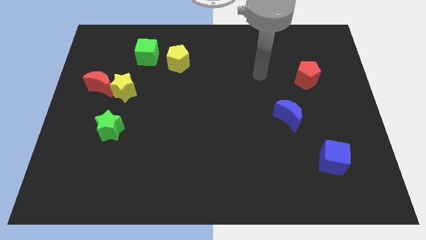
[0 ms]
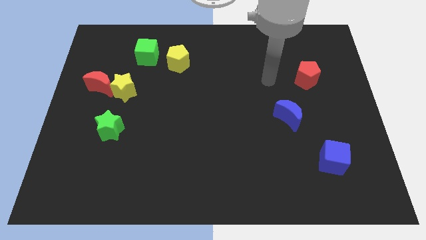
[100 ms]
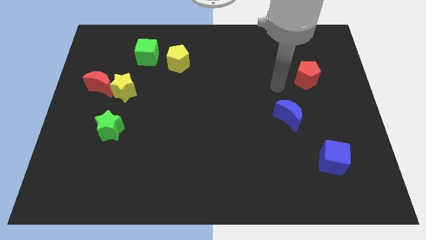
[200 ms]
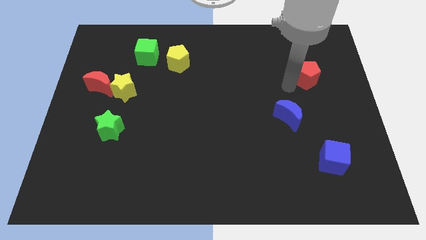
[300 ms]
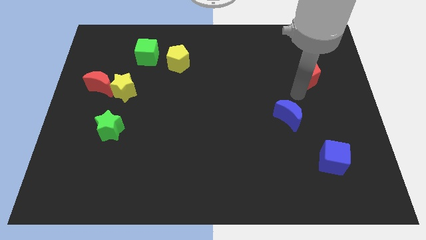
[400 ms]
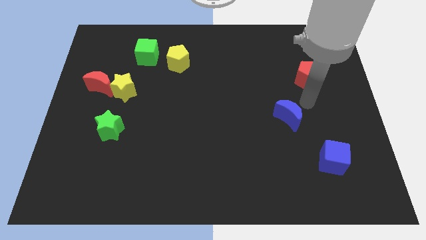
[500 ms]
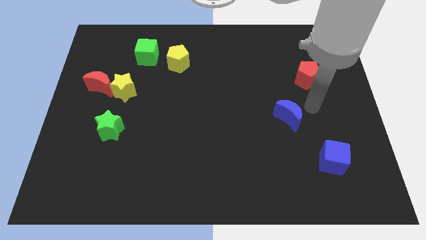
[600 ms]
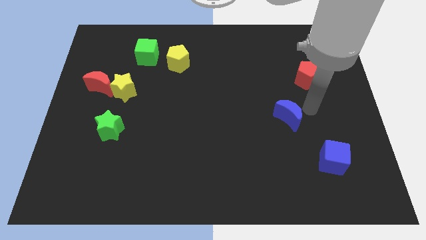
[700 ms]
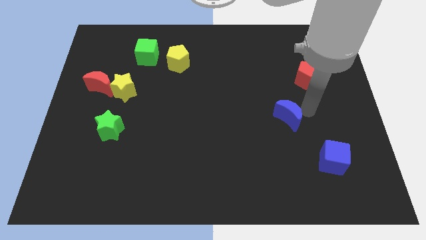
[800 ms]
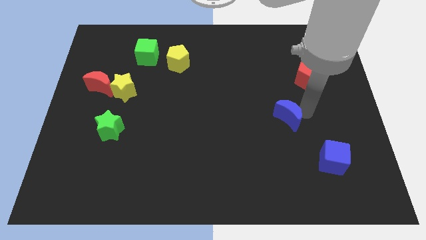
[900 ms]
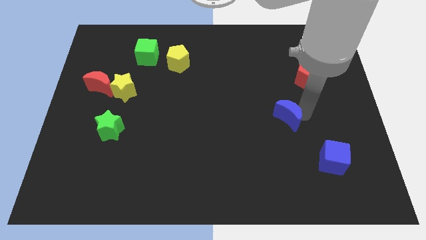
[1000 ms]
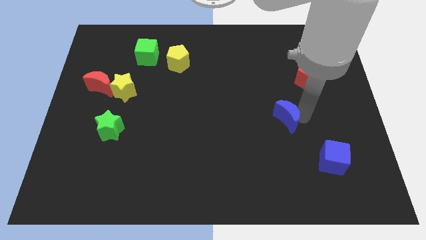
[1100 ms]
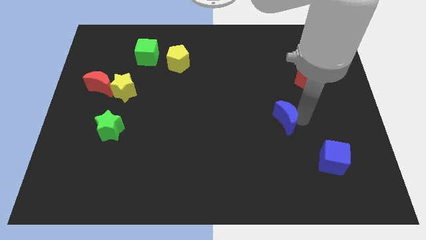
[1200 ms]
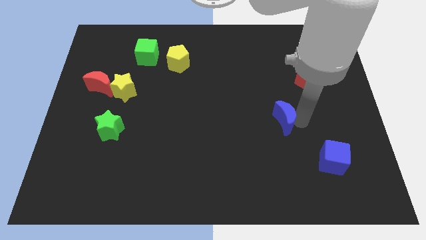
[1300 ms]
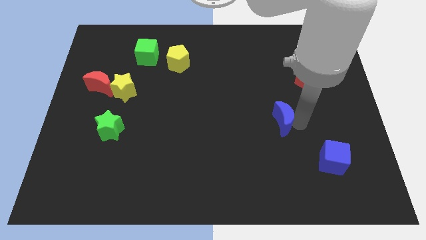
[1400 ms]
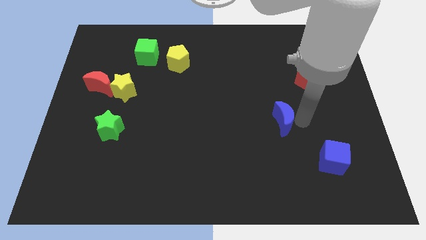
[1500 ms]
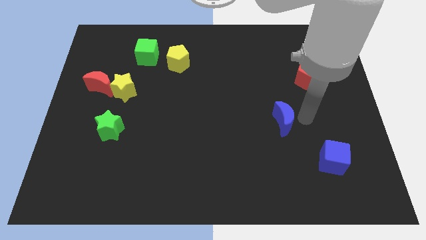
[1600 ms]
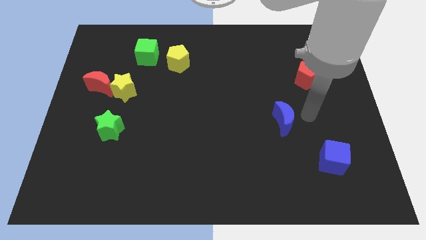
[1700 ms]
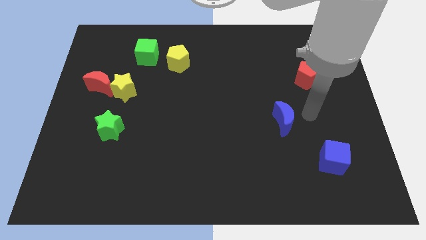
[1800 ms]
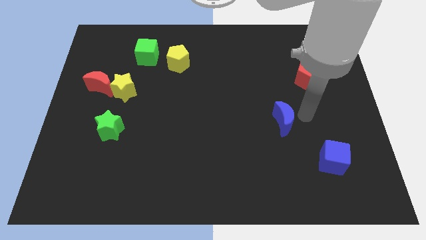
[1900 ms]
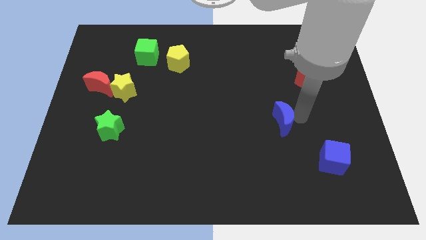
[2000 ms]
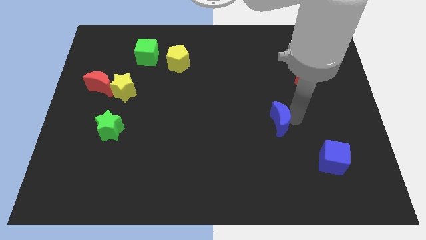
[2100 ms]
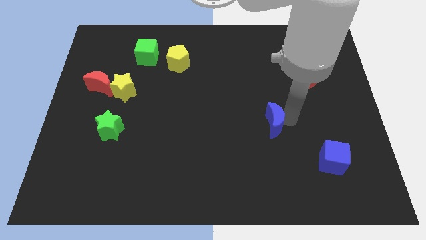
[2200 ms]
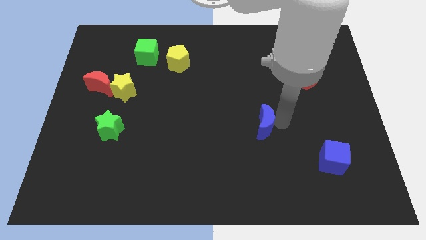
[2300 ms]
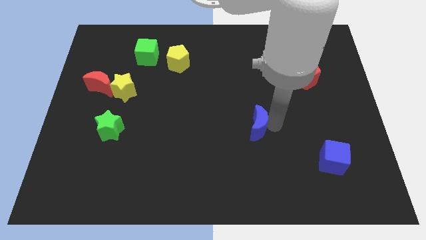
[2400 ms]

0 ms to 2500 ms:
slightly move the blue moon to the left

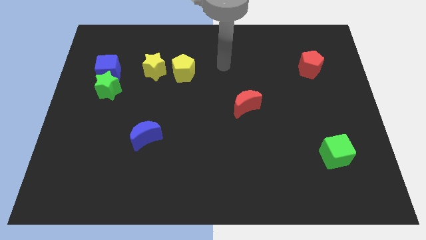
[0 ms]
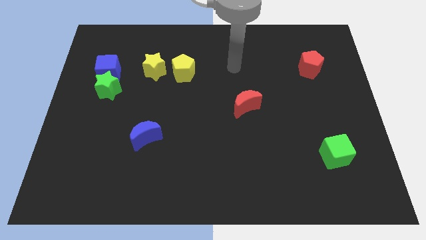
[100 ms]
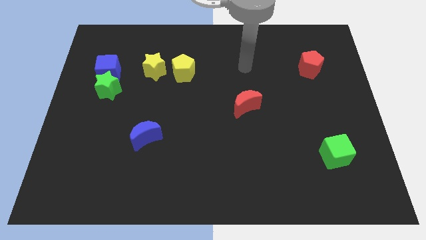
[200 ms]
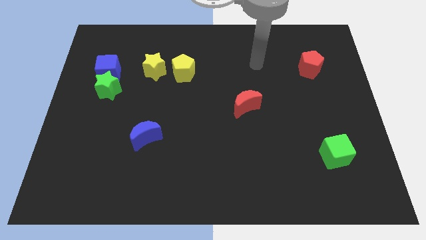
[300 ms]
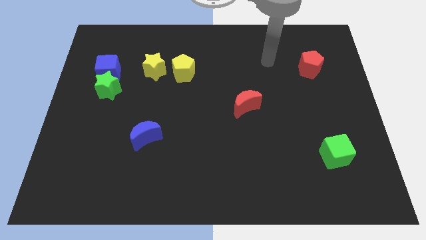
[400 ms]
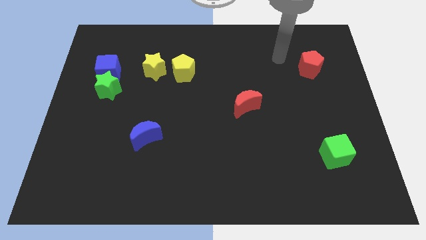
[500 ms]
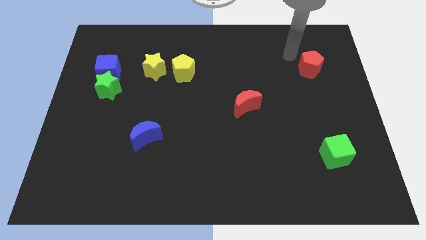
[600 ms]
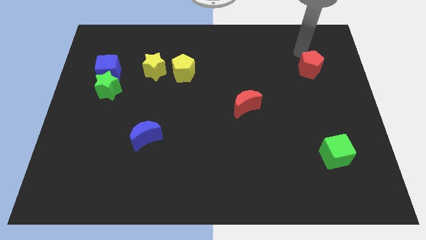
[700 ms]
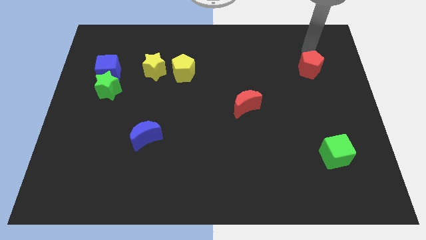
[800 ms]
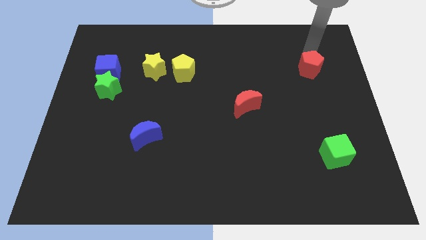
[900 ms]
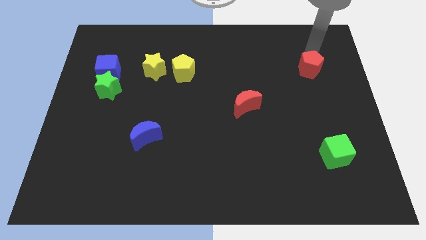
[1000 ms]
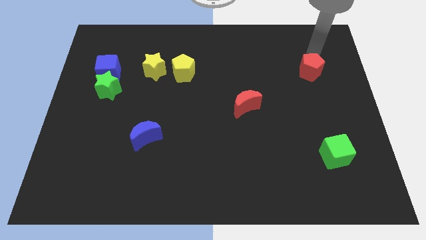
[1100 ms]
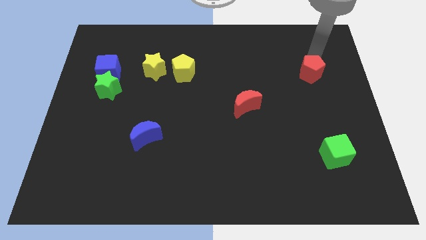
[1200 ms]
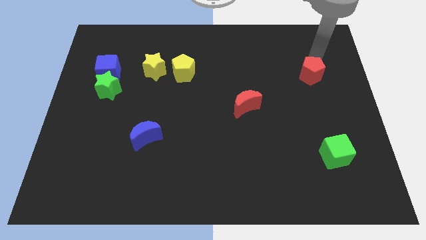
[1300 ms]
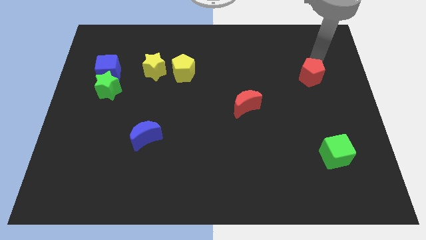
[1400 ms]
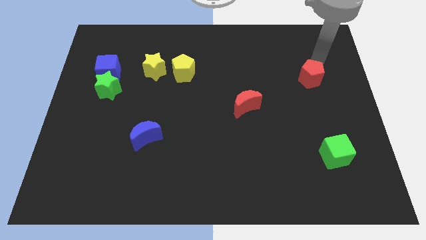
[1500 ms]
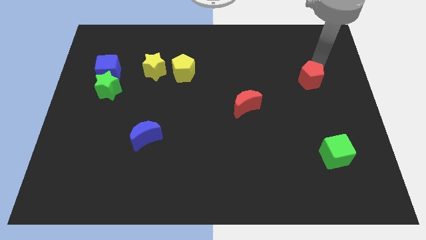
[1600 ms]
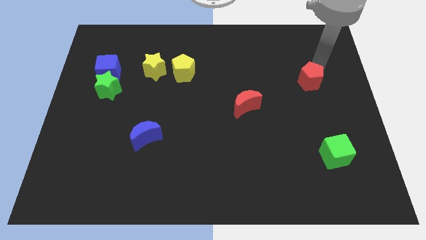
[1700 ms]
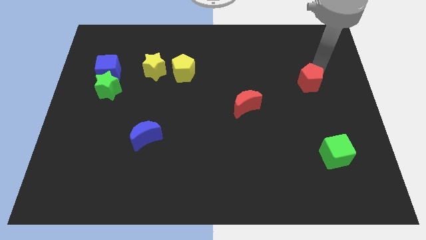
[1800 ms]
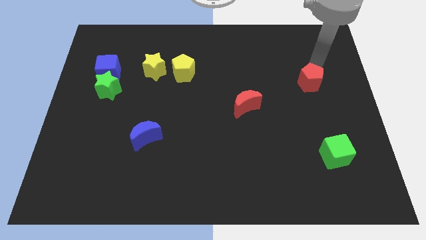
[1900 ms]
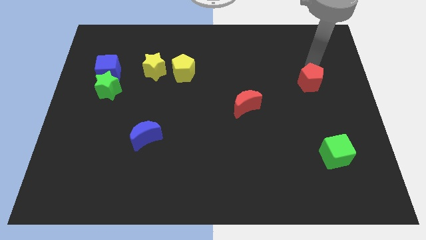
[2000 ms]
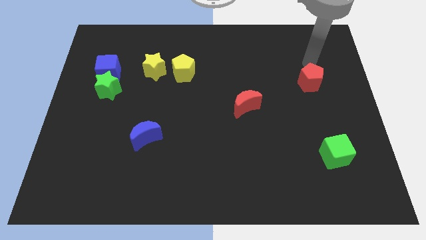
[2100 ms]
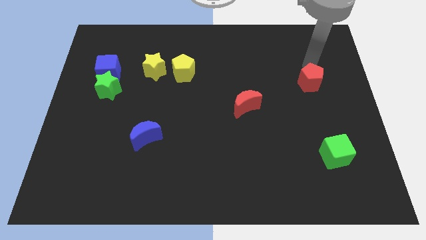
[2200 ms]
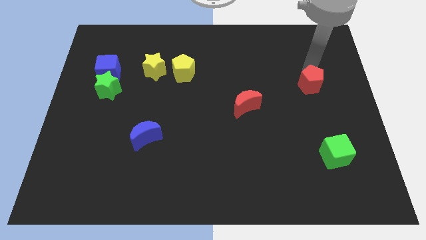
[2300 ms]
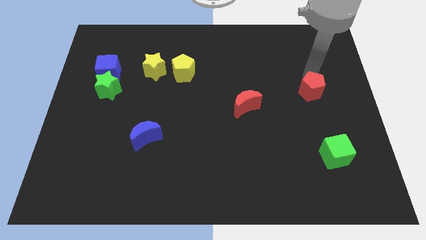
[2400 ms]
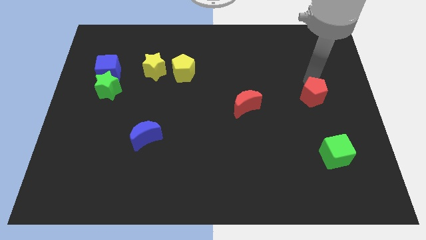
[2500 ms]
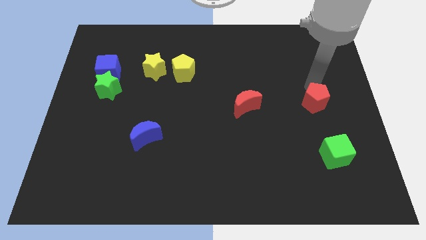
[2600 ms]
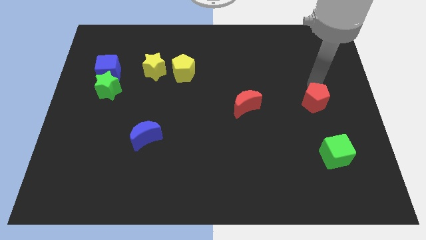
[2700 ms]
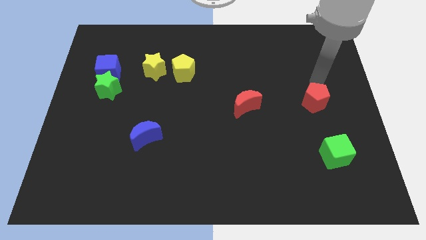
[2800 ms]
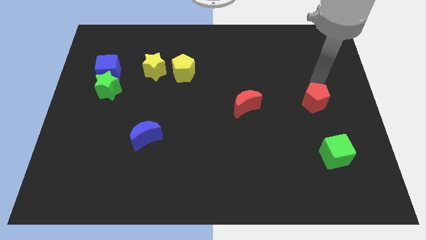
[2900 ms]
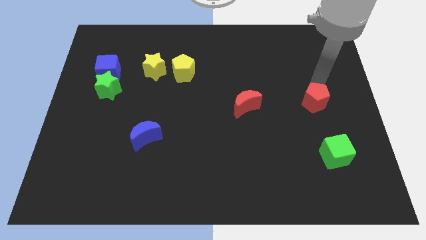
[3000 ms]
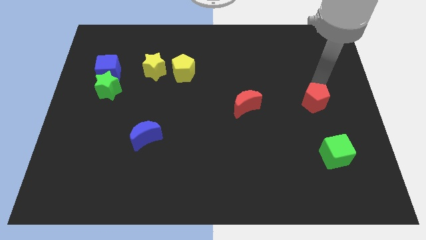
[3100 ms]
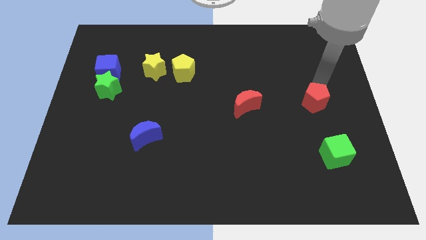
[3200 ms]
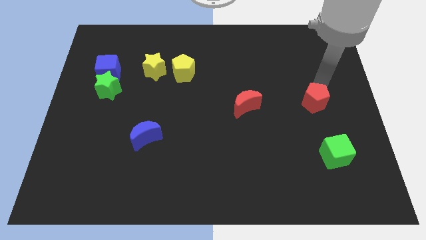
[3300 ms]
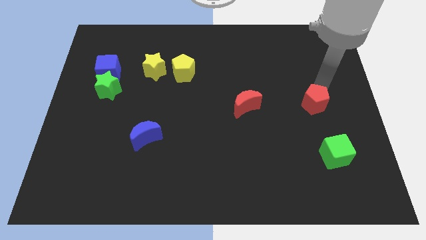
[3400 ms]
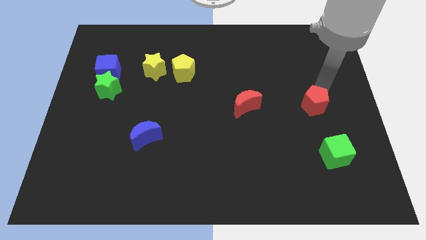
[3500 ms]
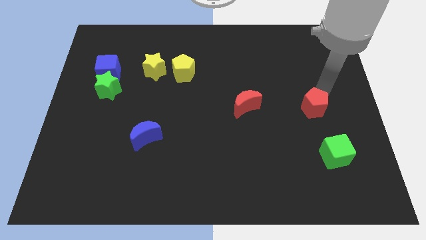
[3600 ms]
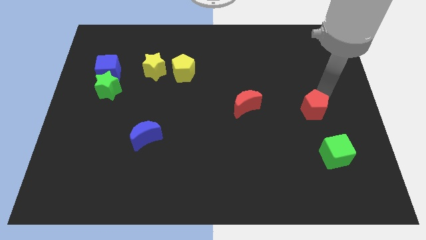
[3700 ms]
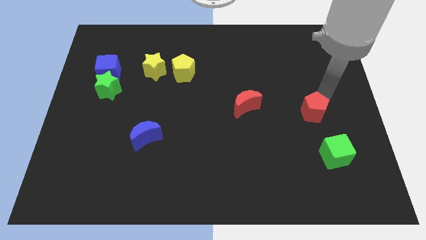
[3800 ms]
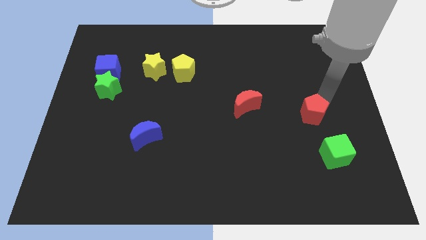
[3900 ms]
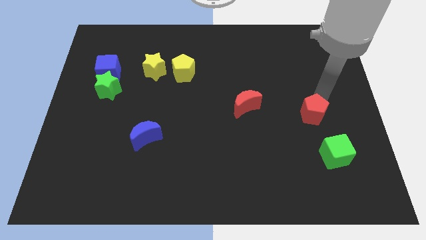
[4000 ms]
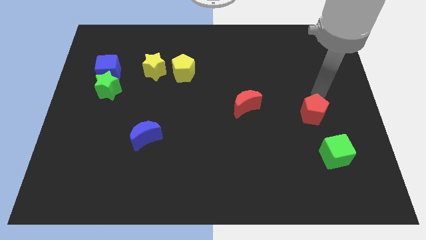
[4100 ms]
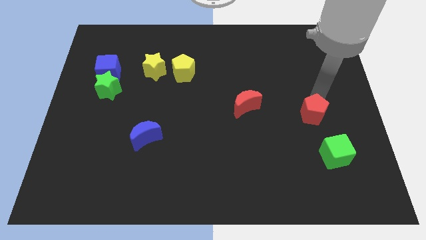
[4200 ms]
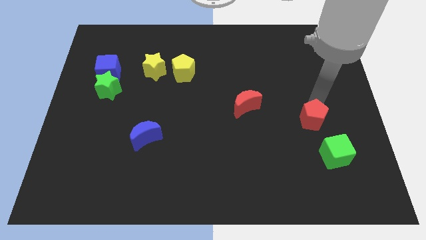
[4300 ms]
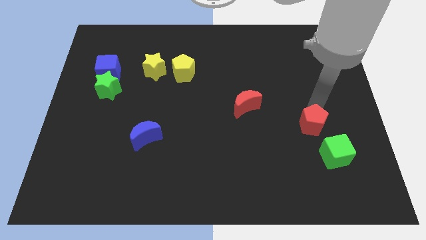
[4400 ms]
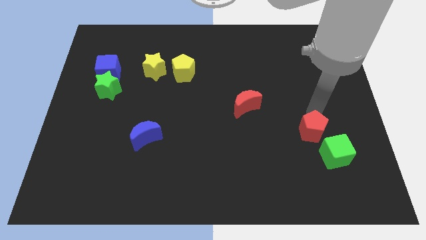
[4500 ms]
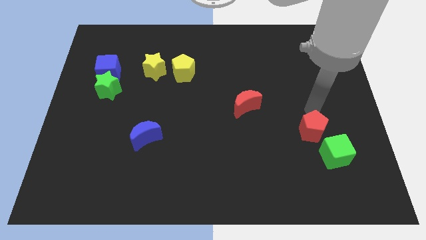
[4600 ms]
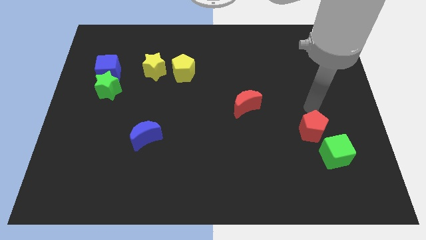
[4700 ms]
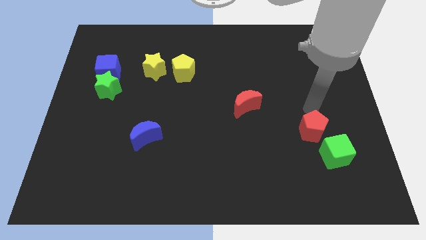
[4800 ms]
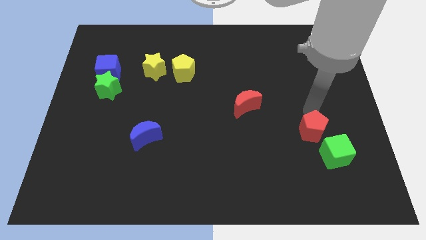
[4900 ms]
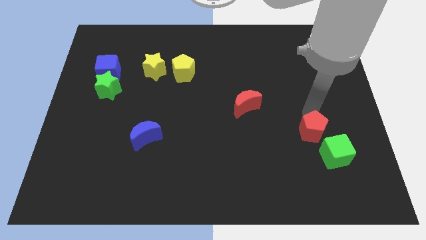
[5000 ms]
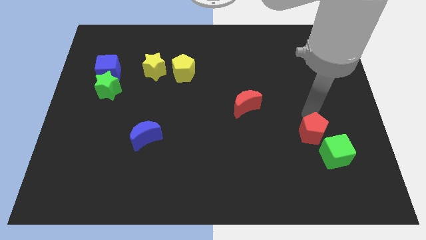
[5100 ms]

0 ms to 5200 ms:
slide the red pentagon down

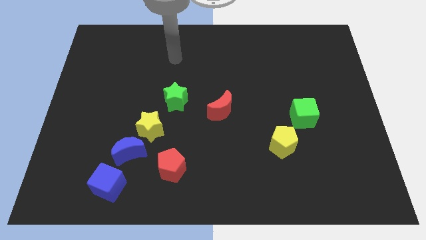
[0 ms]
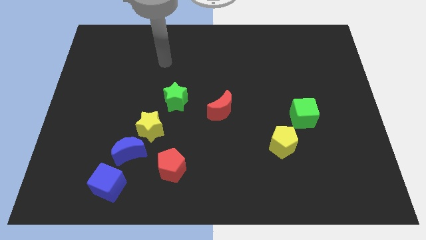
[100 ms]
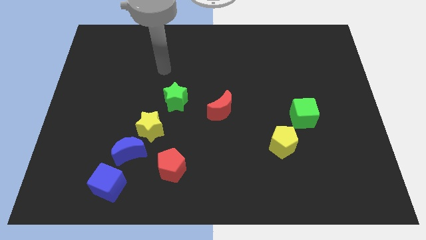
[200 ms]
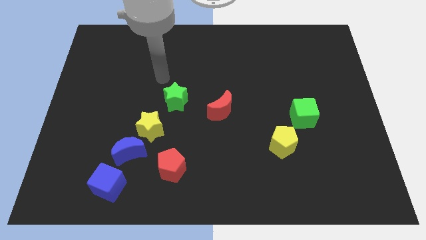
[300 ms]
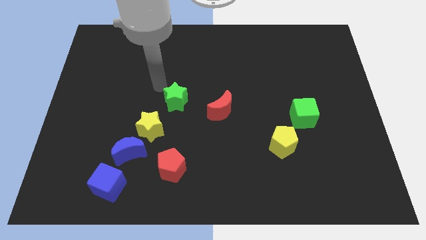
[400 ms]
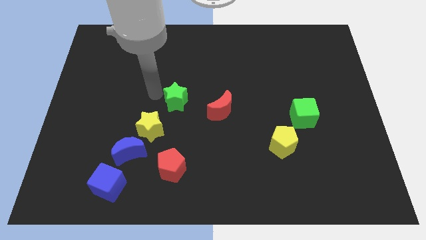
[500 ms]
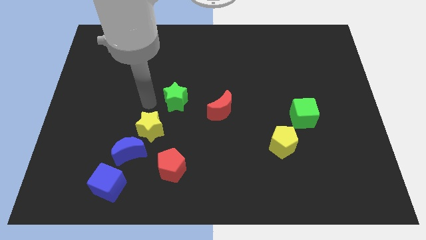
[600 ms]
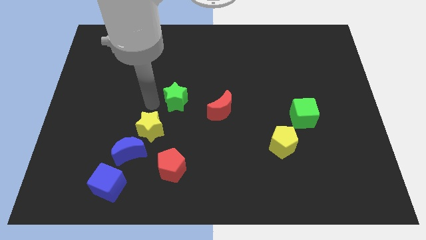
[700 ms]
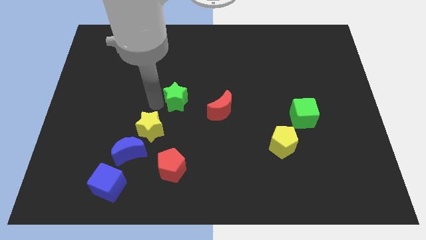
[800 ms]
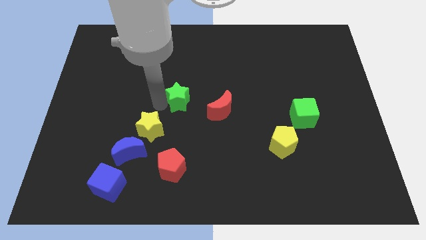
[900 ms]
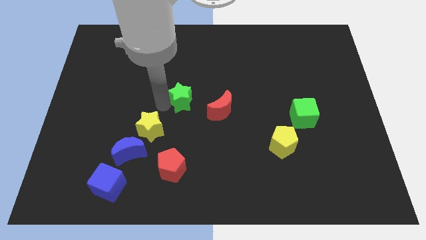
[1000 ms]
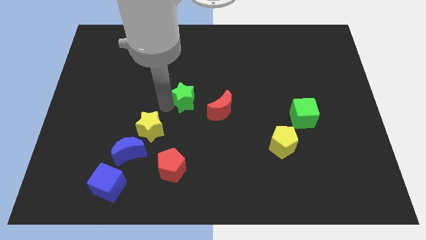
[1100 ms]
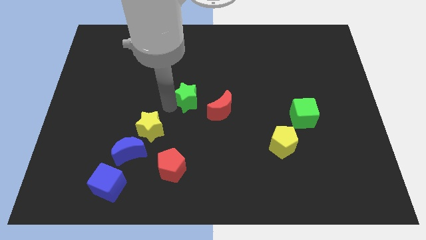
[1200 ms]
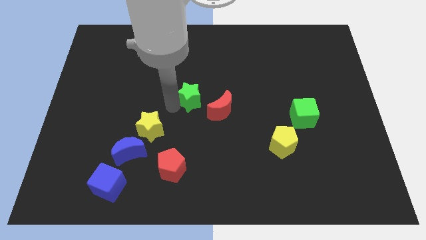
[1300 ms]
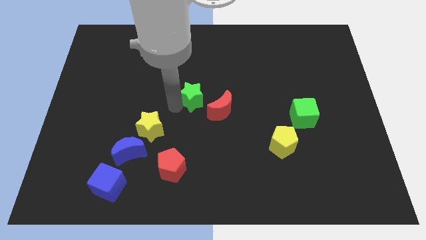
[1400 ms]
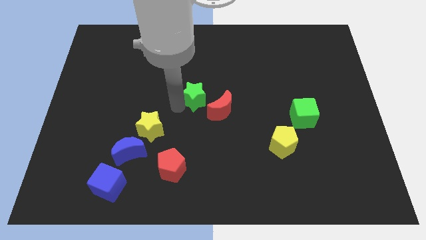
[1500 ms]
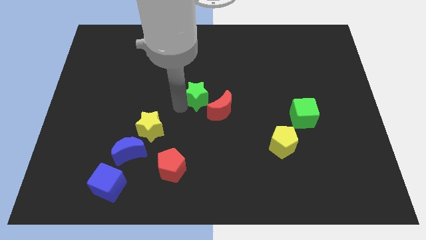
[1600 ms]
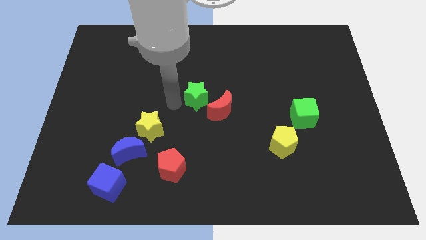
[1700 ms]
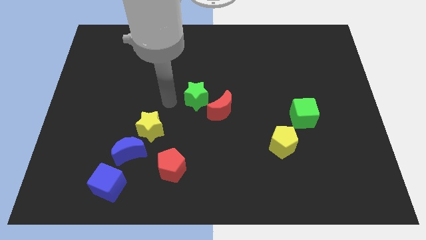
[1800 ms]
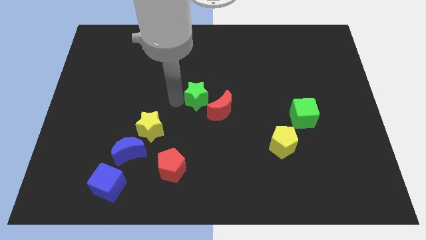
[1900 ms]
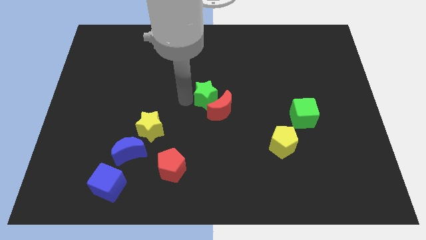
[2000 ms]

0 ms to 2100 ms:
slightly push the green star right
